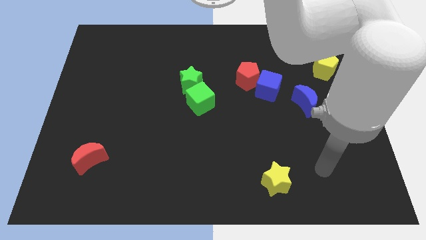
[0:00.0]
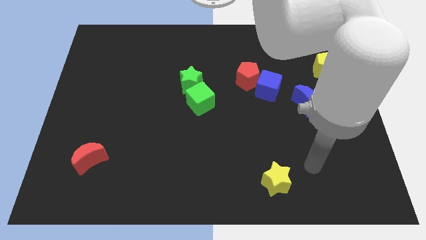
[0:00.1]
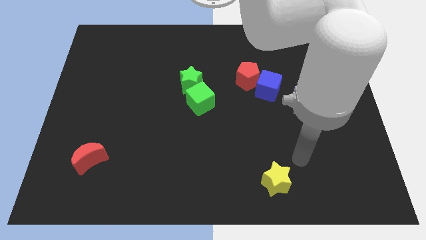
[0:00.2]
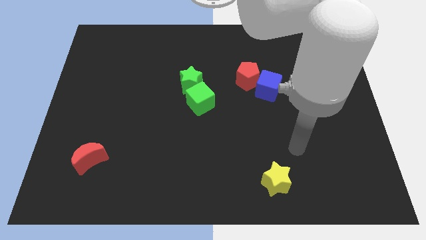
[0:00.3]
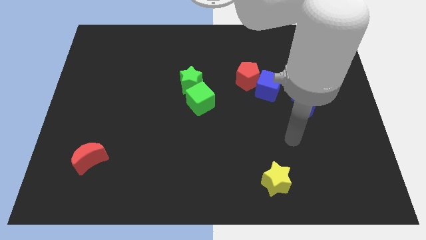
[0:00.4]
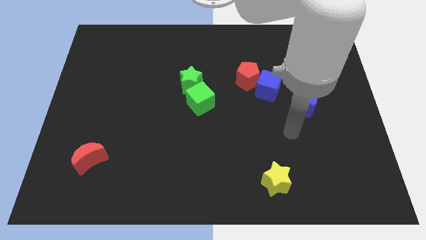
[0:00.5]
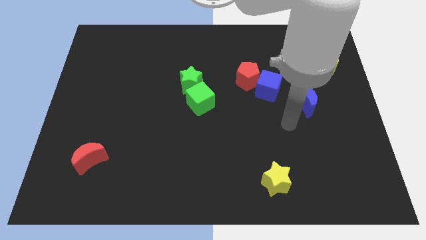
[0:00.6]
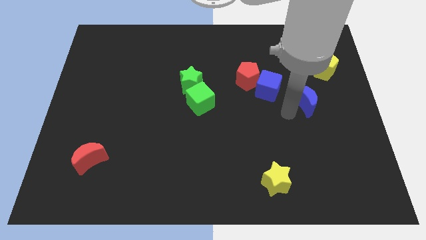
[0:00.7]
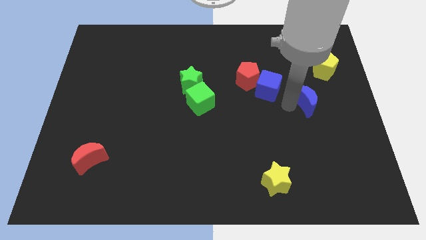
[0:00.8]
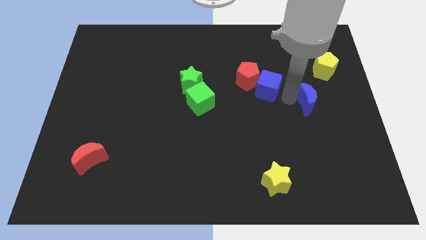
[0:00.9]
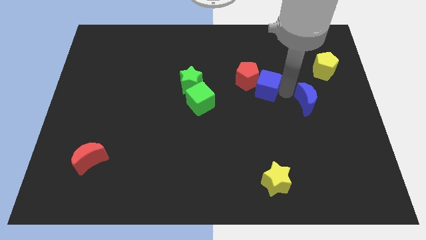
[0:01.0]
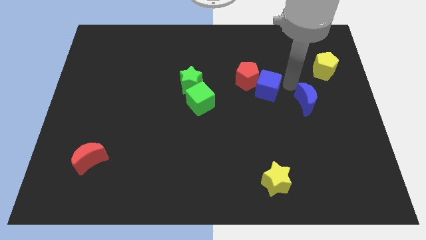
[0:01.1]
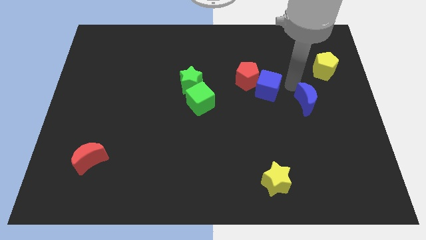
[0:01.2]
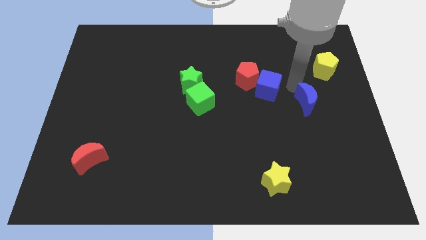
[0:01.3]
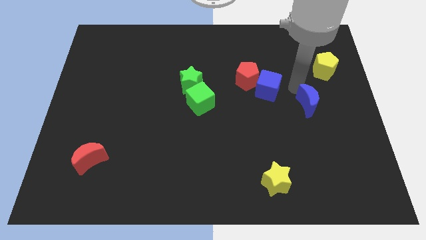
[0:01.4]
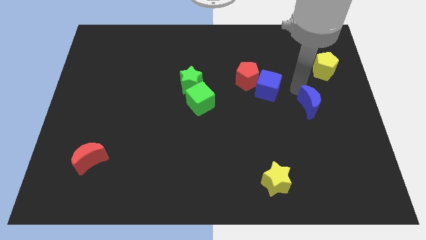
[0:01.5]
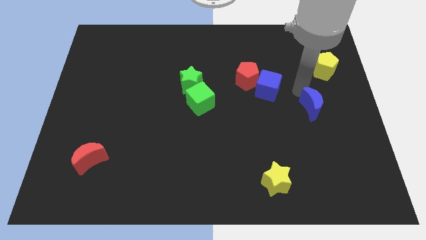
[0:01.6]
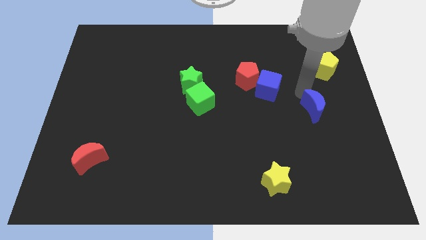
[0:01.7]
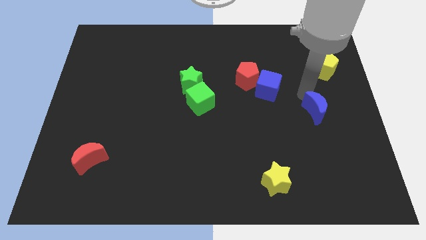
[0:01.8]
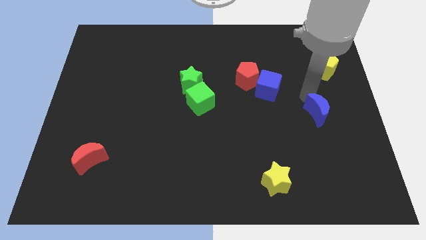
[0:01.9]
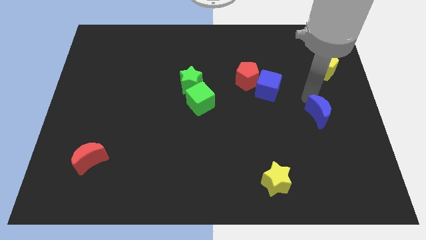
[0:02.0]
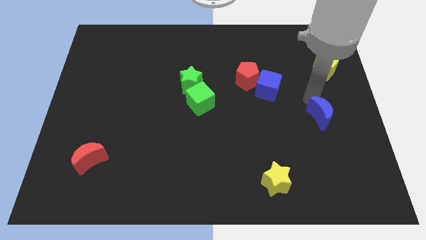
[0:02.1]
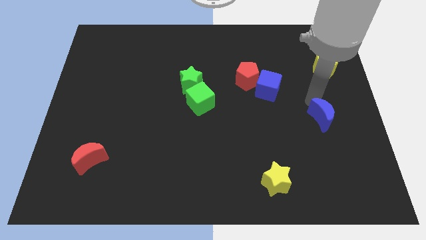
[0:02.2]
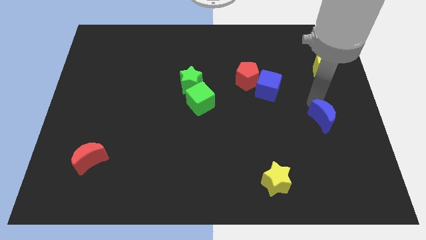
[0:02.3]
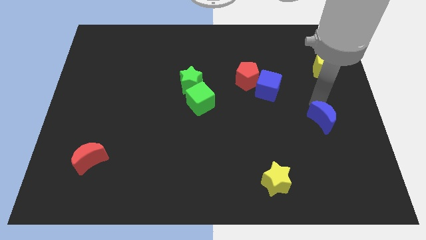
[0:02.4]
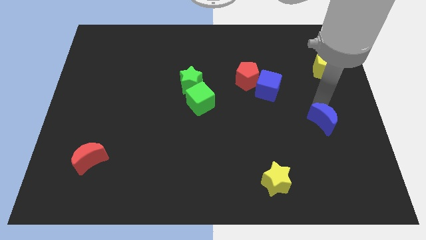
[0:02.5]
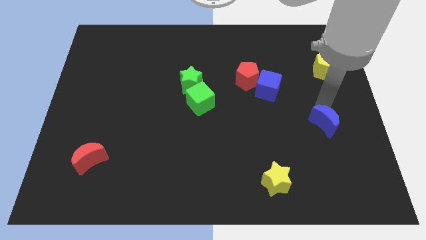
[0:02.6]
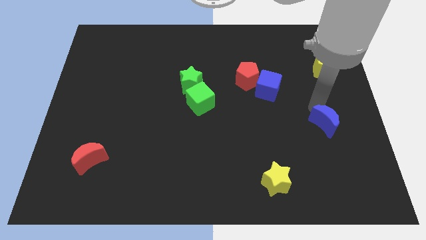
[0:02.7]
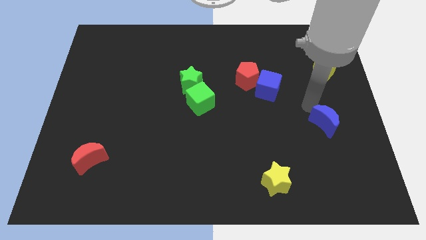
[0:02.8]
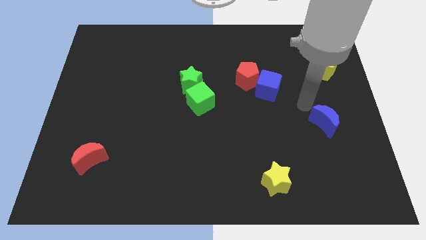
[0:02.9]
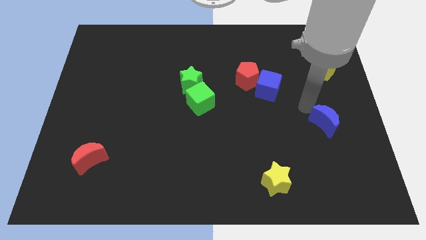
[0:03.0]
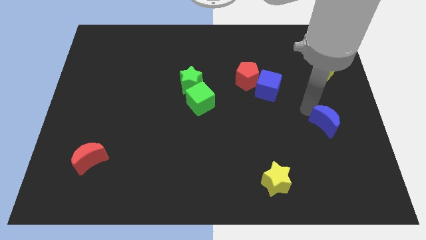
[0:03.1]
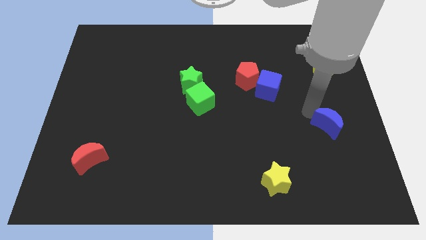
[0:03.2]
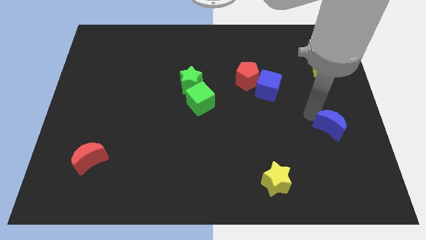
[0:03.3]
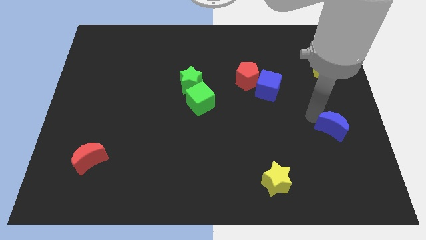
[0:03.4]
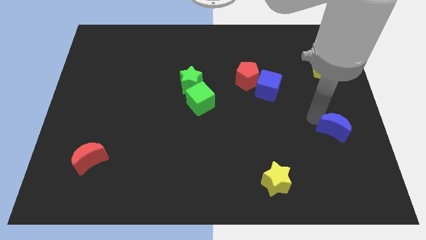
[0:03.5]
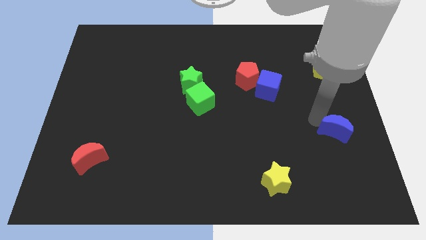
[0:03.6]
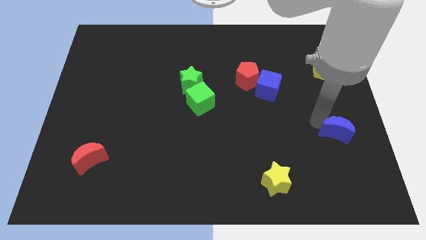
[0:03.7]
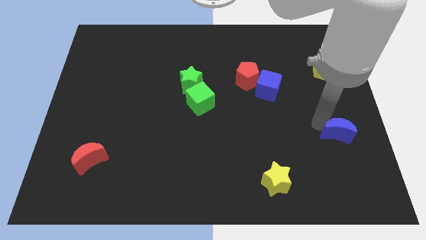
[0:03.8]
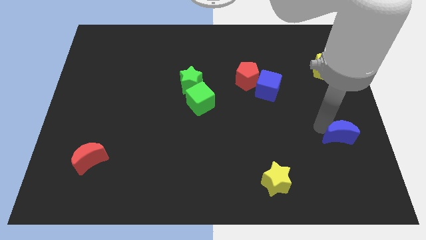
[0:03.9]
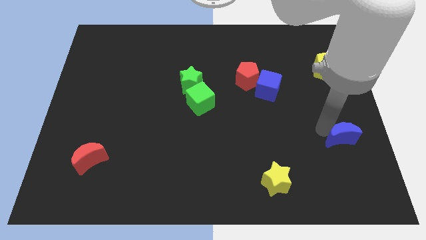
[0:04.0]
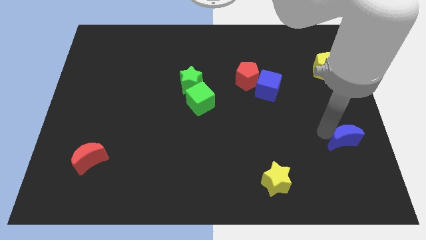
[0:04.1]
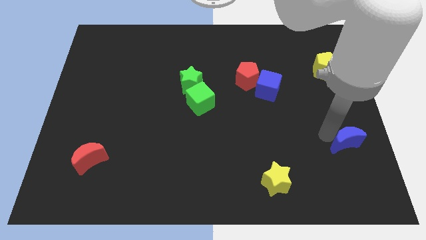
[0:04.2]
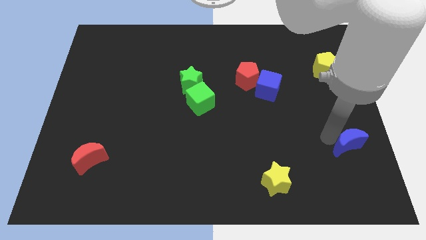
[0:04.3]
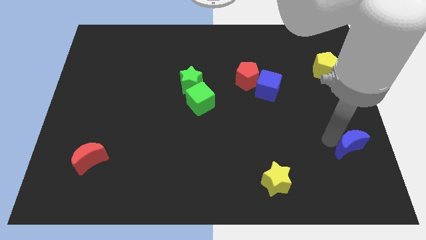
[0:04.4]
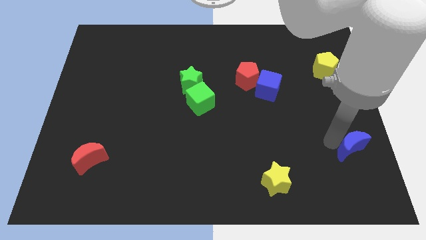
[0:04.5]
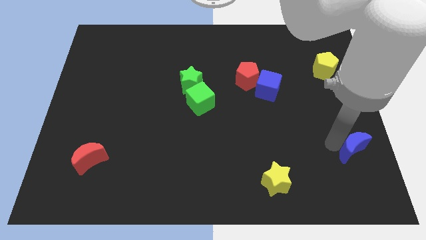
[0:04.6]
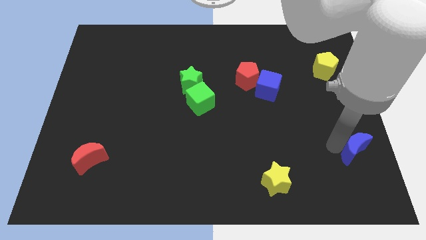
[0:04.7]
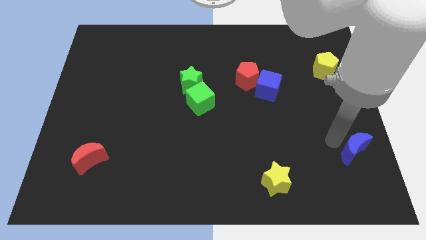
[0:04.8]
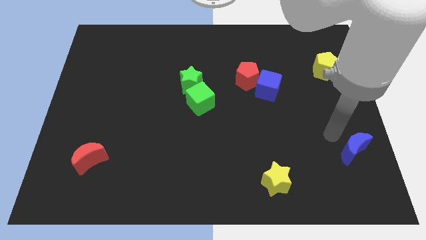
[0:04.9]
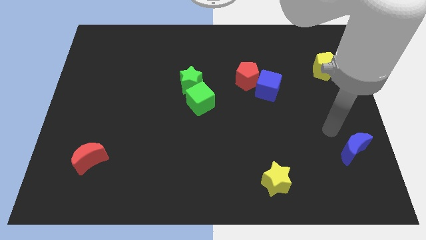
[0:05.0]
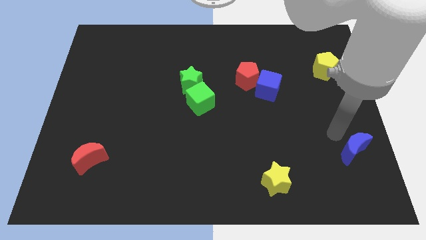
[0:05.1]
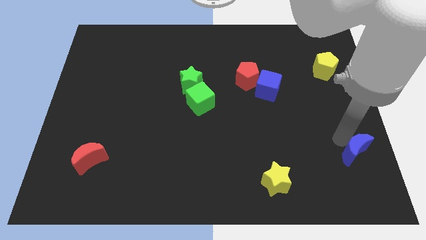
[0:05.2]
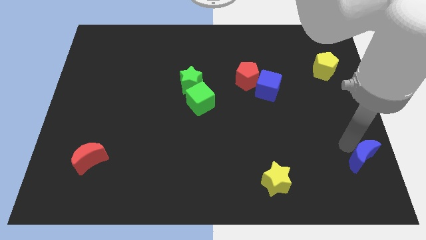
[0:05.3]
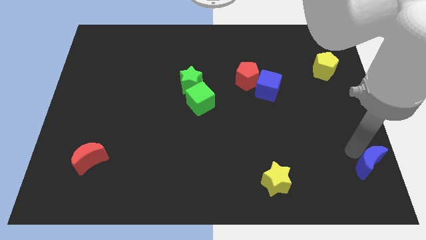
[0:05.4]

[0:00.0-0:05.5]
slide the blue moon to the lower right corner
